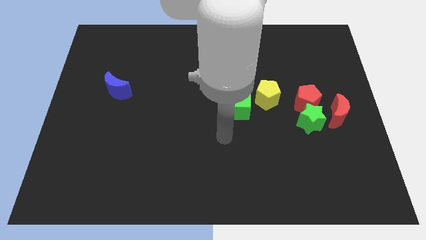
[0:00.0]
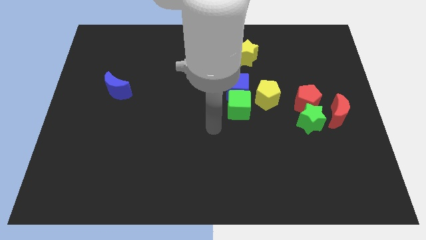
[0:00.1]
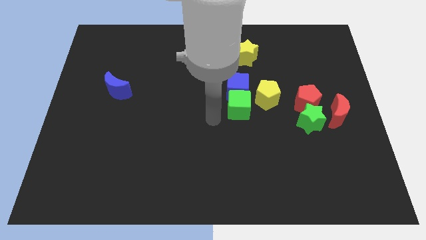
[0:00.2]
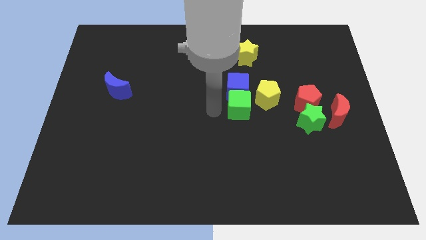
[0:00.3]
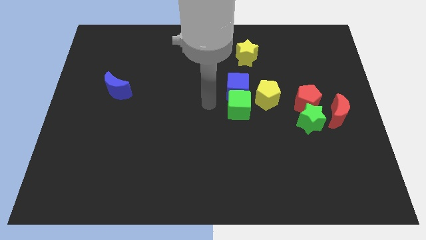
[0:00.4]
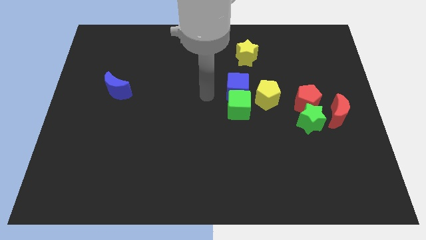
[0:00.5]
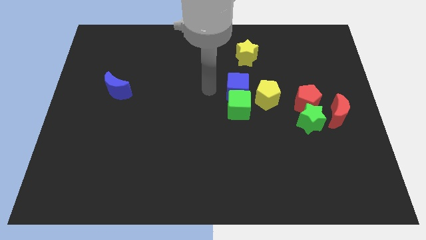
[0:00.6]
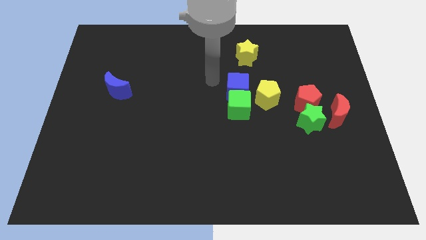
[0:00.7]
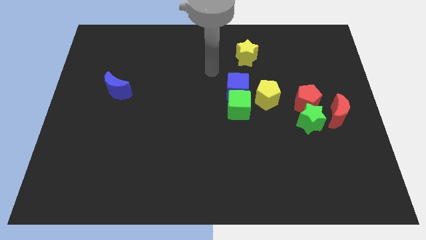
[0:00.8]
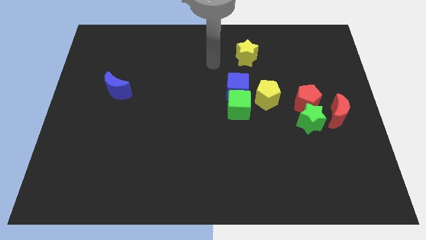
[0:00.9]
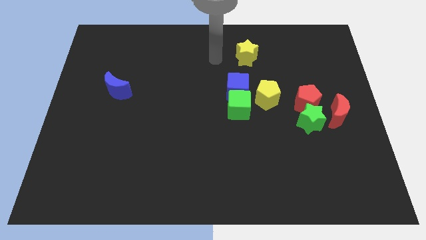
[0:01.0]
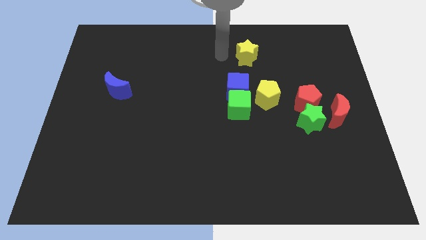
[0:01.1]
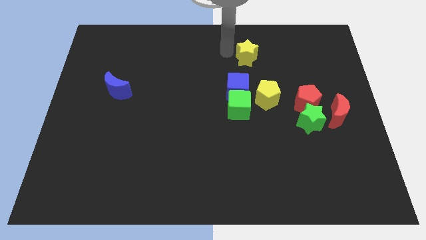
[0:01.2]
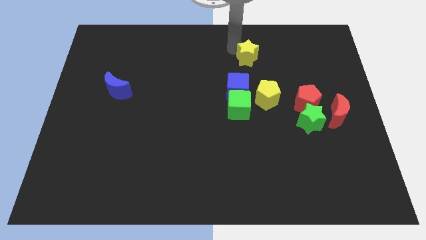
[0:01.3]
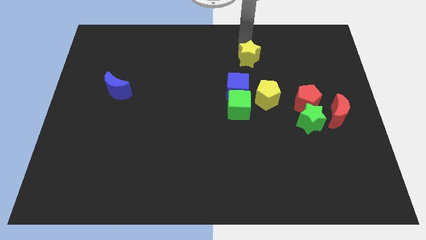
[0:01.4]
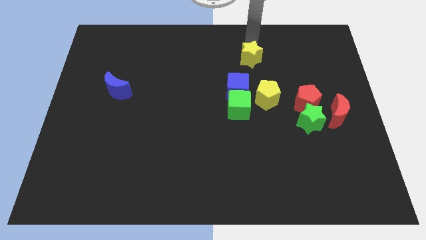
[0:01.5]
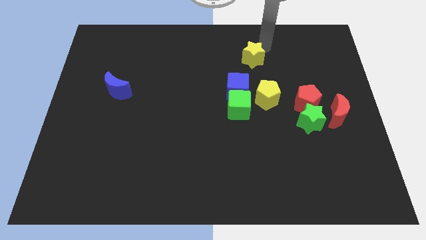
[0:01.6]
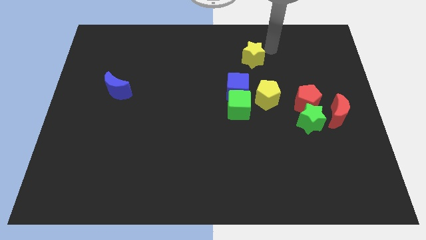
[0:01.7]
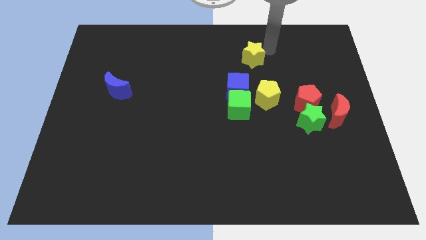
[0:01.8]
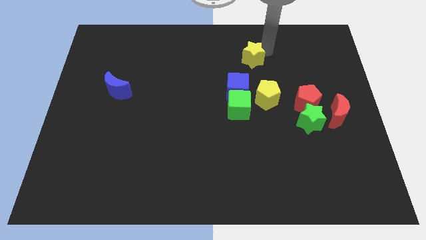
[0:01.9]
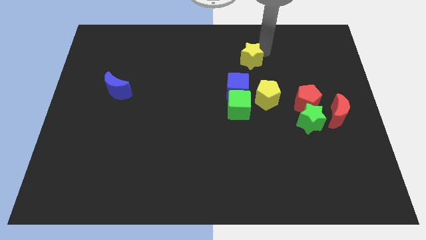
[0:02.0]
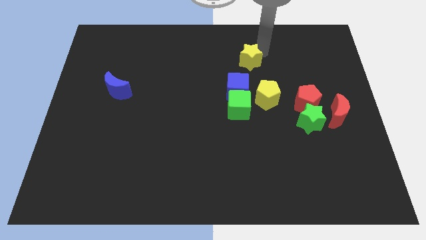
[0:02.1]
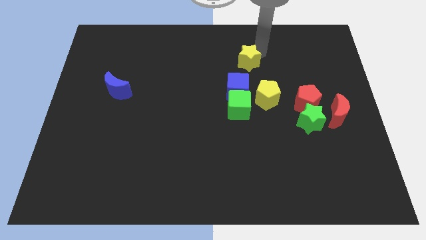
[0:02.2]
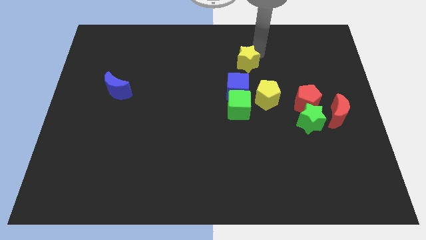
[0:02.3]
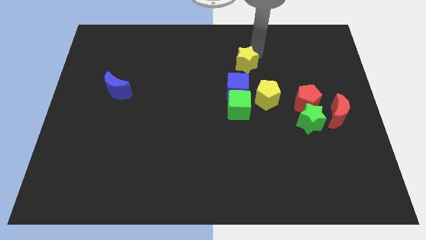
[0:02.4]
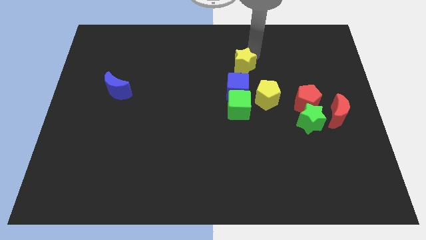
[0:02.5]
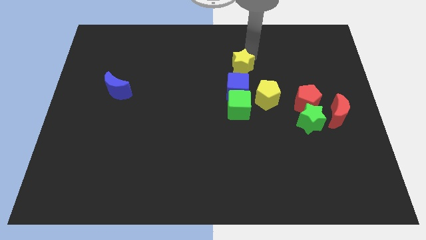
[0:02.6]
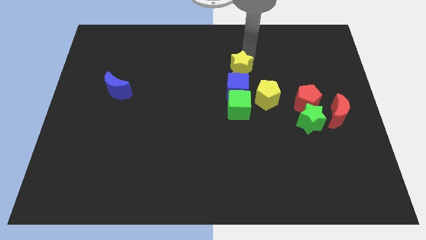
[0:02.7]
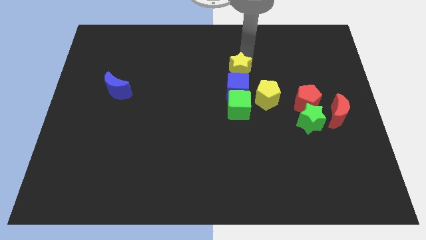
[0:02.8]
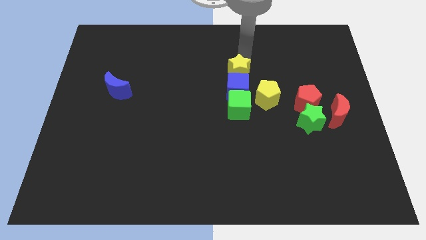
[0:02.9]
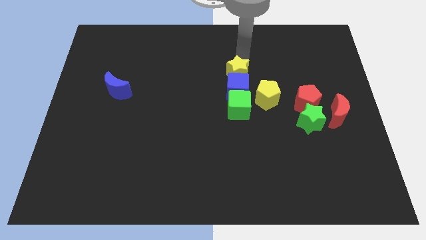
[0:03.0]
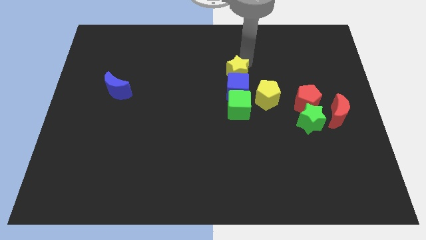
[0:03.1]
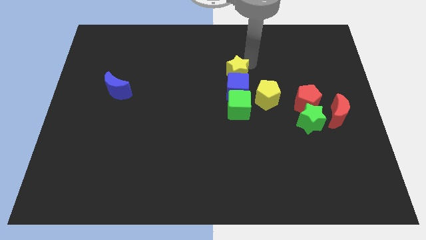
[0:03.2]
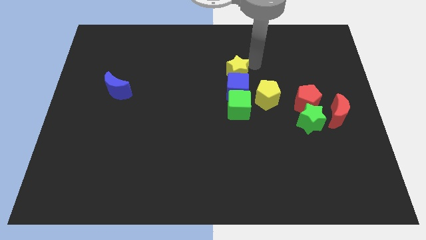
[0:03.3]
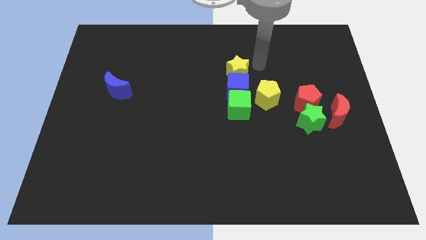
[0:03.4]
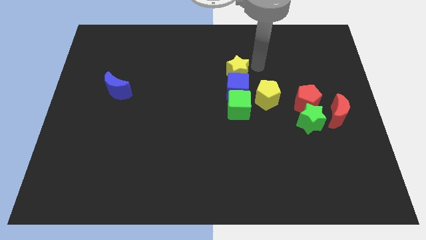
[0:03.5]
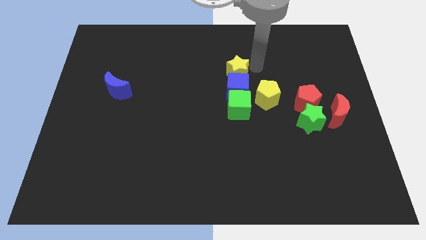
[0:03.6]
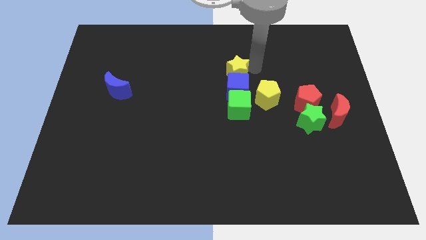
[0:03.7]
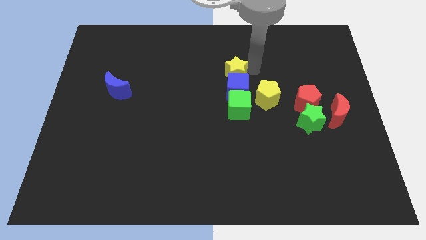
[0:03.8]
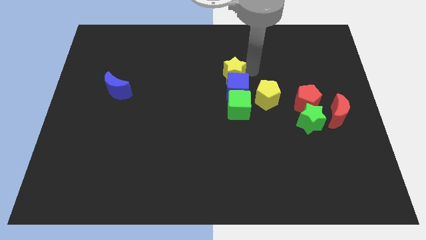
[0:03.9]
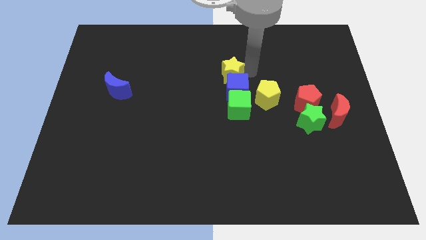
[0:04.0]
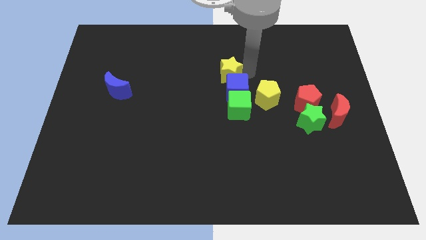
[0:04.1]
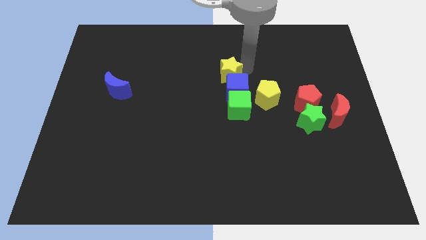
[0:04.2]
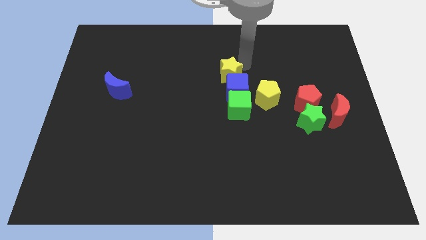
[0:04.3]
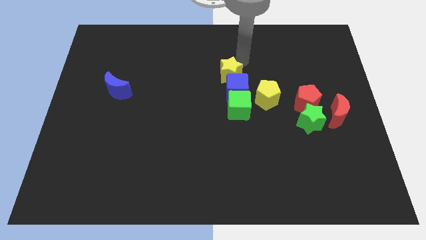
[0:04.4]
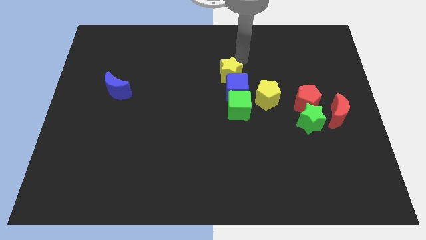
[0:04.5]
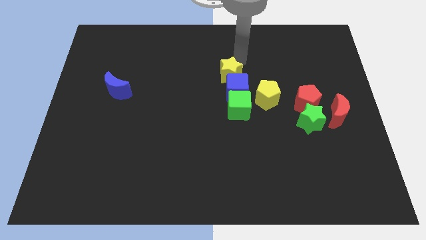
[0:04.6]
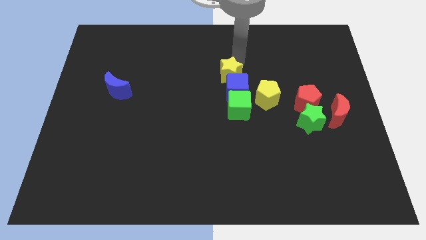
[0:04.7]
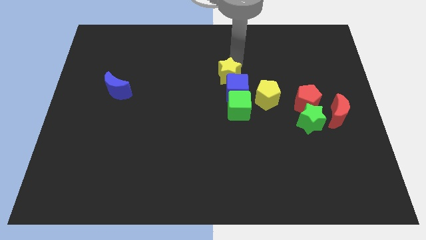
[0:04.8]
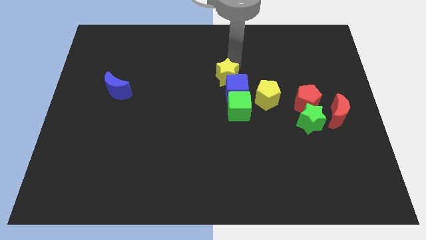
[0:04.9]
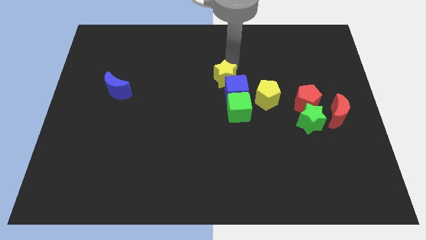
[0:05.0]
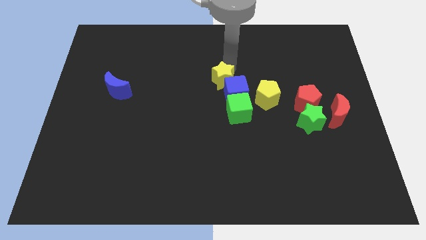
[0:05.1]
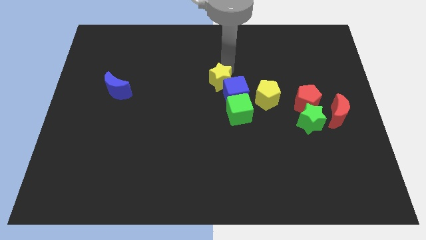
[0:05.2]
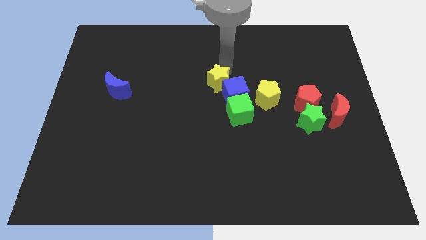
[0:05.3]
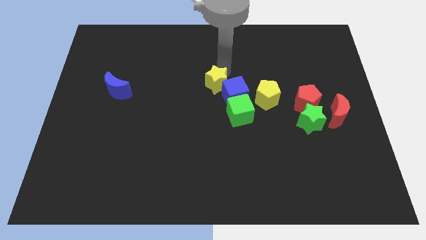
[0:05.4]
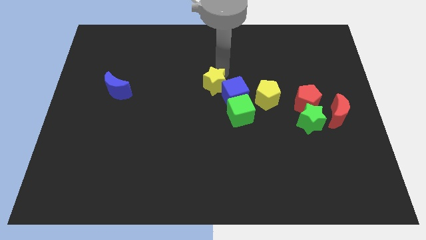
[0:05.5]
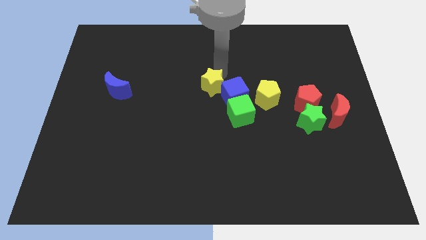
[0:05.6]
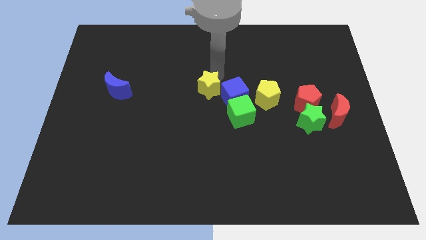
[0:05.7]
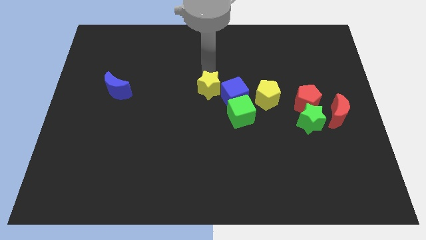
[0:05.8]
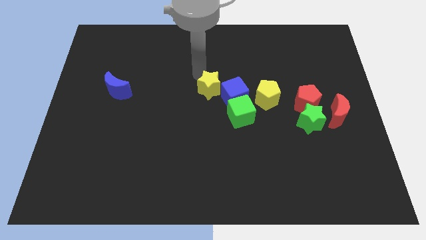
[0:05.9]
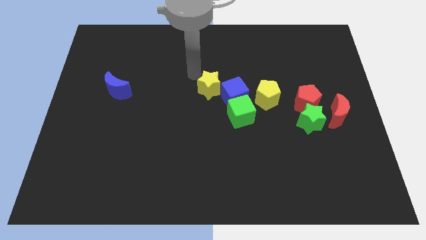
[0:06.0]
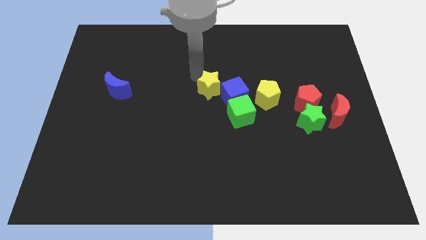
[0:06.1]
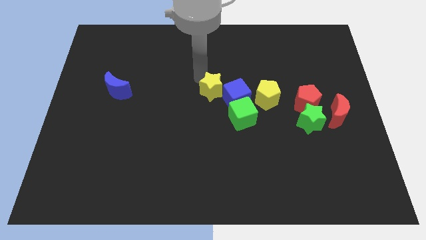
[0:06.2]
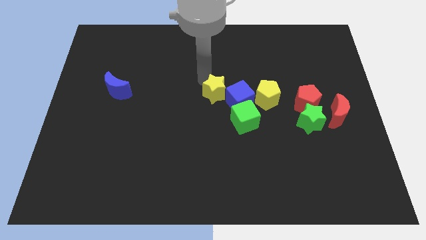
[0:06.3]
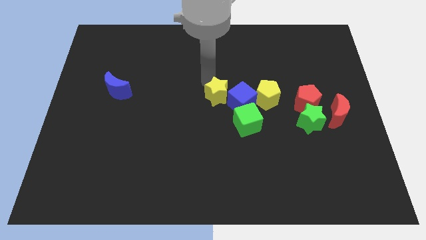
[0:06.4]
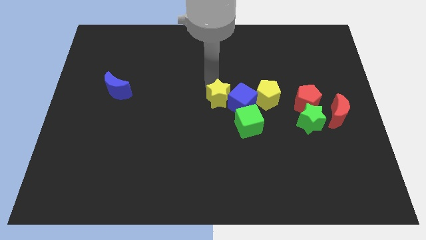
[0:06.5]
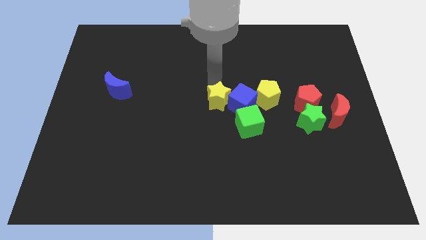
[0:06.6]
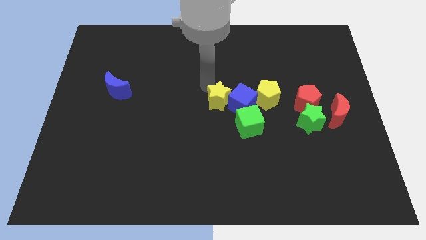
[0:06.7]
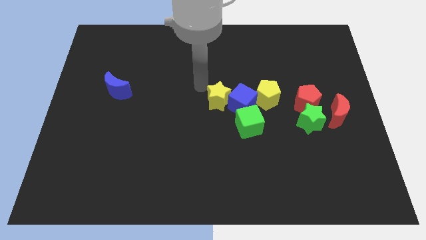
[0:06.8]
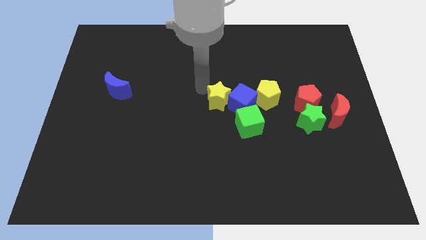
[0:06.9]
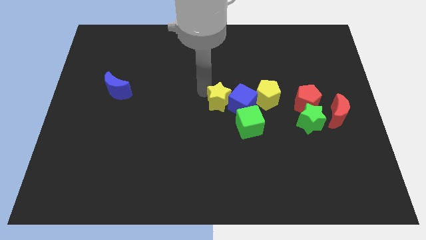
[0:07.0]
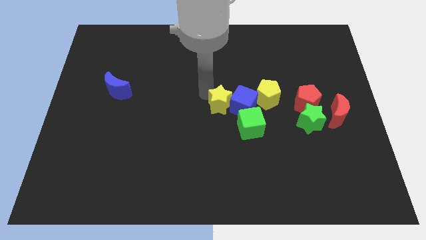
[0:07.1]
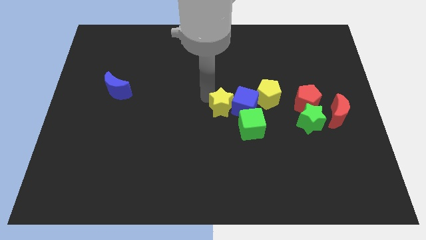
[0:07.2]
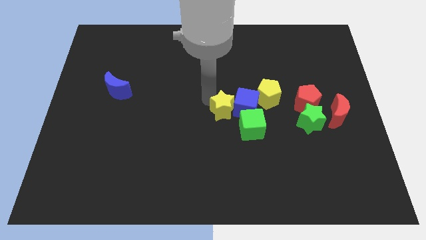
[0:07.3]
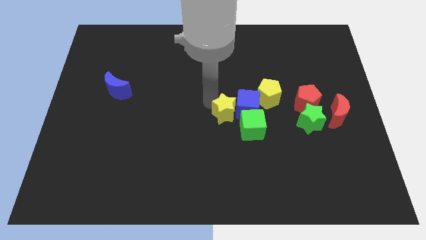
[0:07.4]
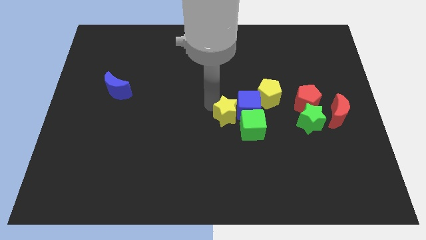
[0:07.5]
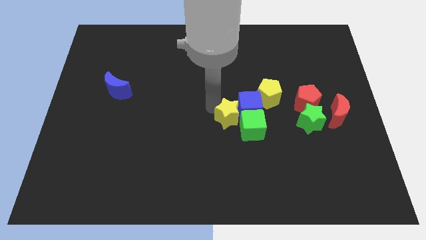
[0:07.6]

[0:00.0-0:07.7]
push the yellow star to the green cube

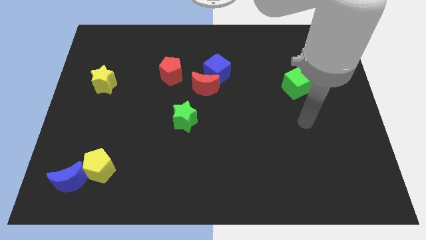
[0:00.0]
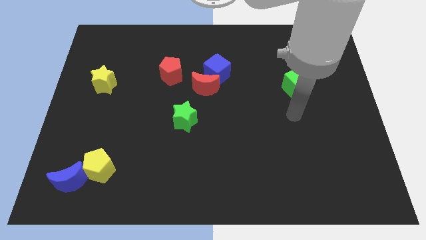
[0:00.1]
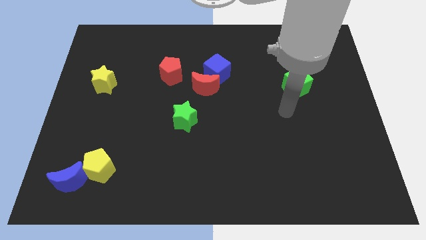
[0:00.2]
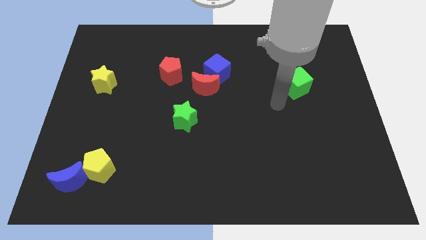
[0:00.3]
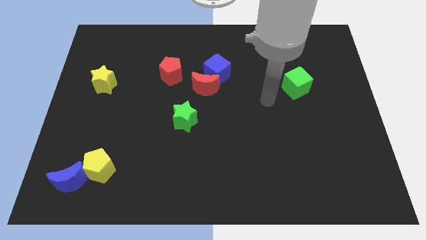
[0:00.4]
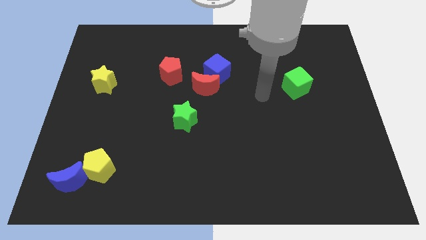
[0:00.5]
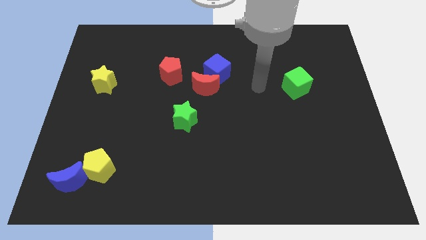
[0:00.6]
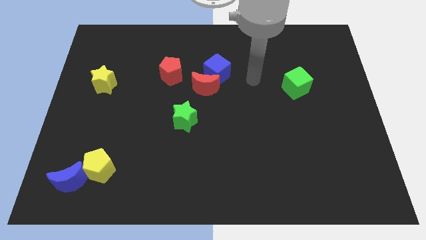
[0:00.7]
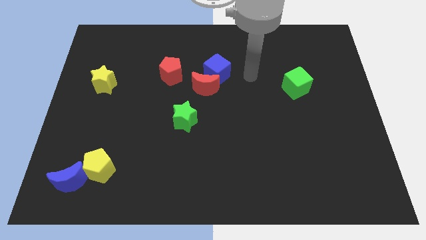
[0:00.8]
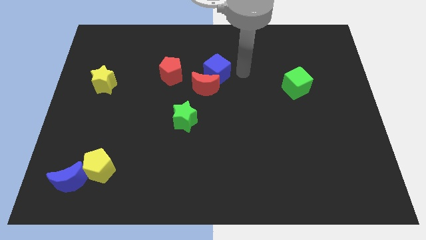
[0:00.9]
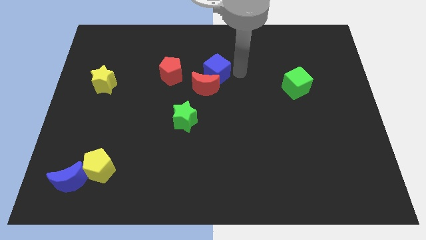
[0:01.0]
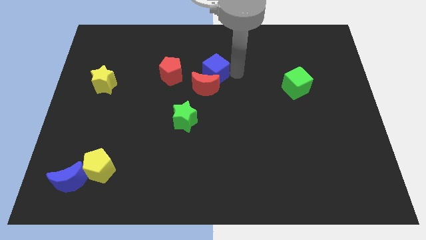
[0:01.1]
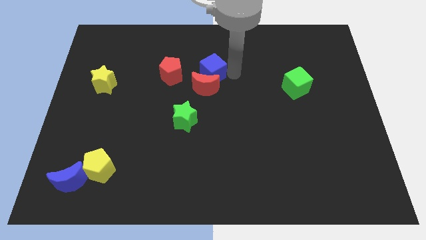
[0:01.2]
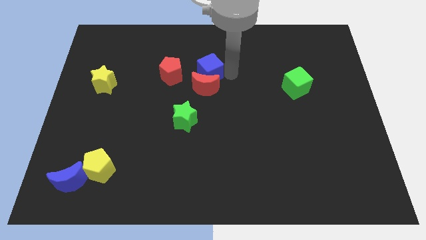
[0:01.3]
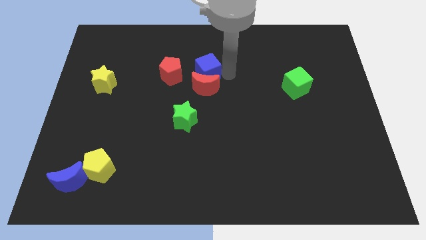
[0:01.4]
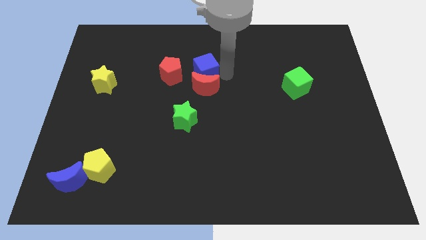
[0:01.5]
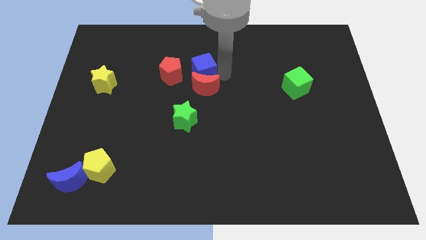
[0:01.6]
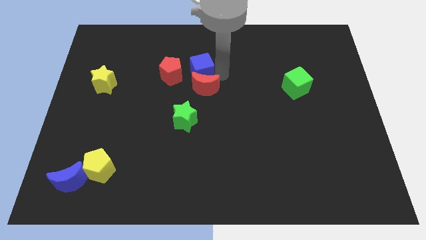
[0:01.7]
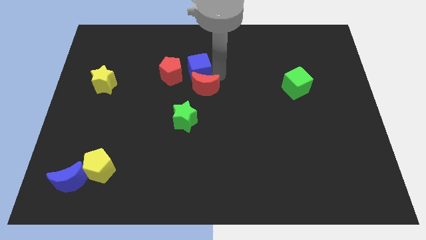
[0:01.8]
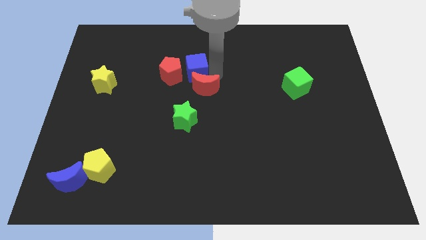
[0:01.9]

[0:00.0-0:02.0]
put the blue cube next to the red pentagon
